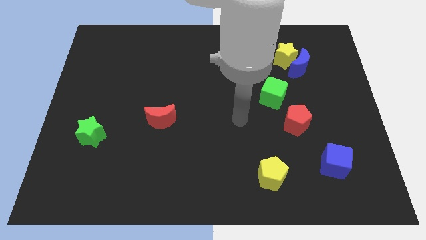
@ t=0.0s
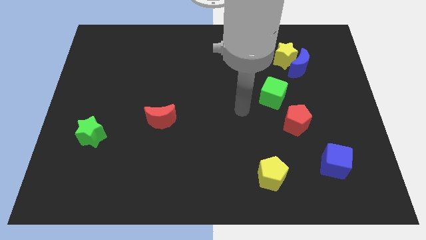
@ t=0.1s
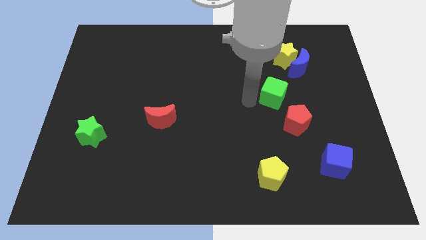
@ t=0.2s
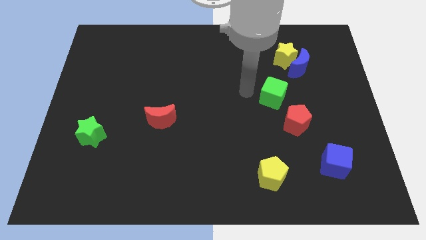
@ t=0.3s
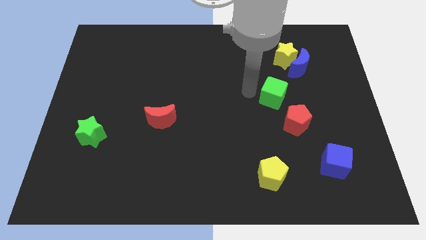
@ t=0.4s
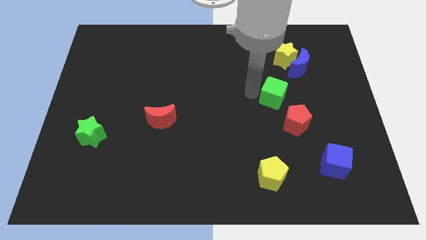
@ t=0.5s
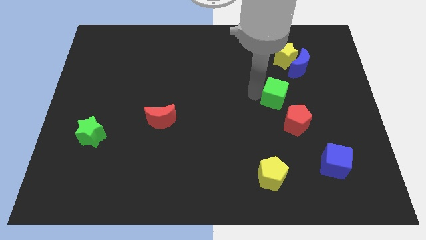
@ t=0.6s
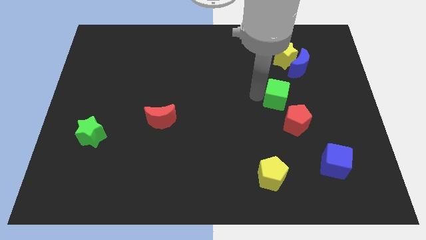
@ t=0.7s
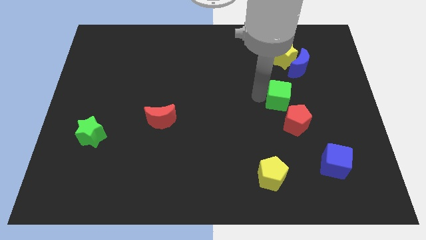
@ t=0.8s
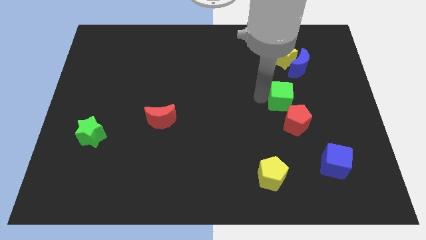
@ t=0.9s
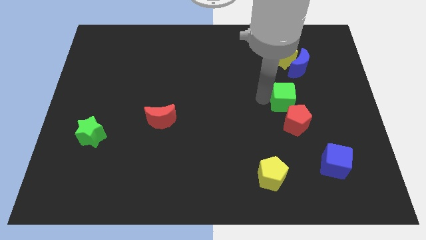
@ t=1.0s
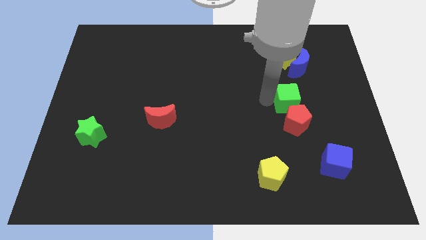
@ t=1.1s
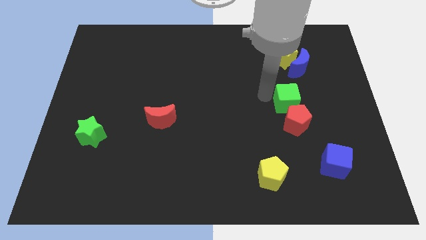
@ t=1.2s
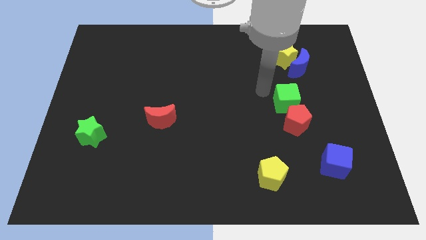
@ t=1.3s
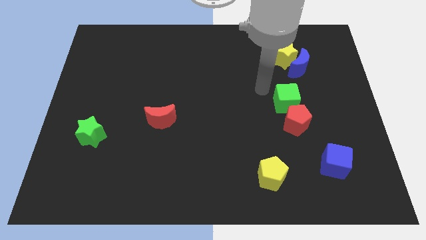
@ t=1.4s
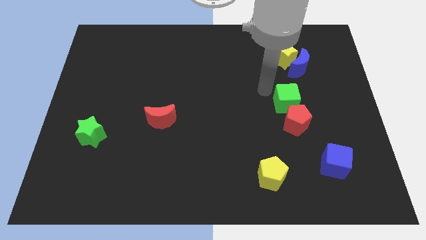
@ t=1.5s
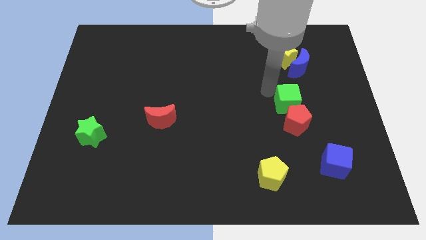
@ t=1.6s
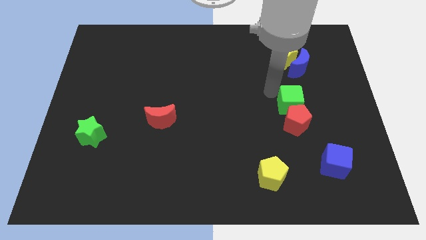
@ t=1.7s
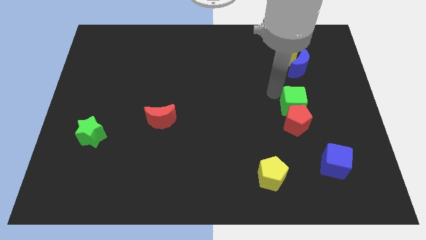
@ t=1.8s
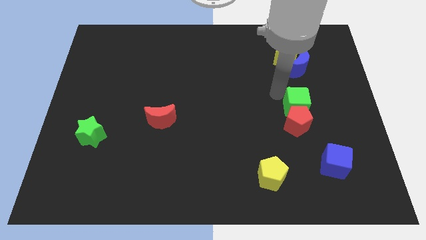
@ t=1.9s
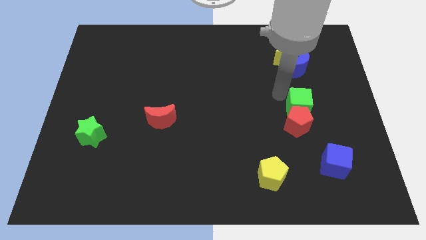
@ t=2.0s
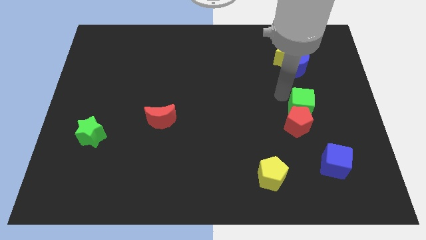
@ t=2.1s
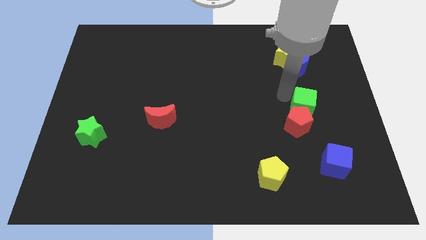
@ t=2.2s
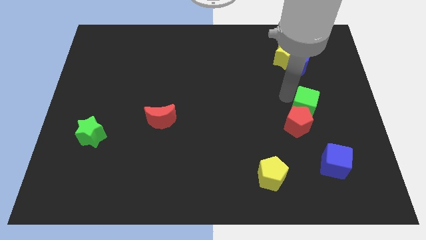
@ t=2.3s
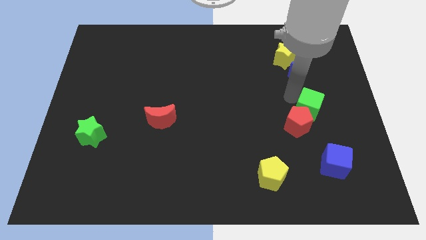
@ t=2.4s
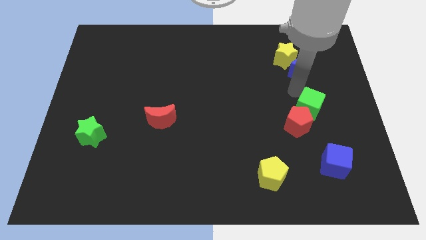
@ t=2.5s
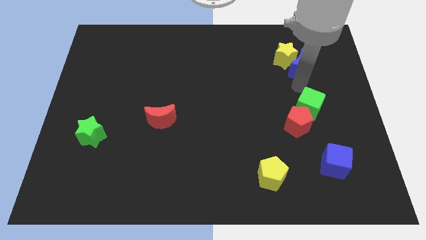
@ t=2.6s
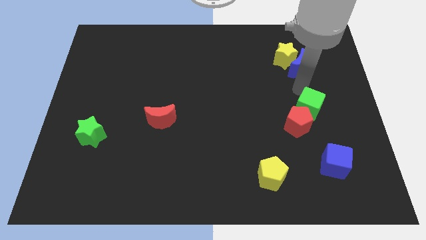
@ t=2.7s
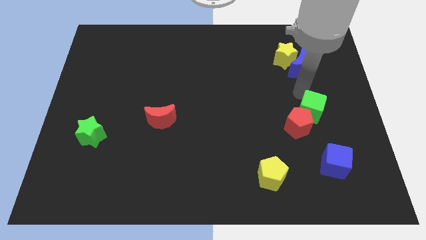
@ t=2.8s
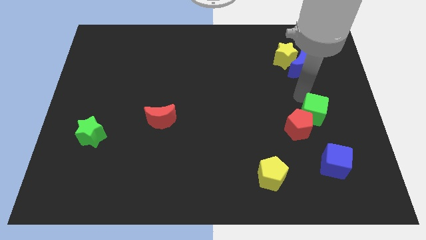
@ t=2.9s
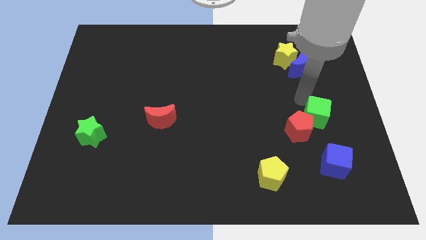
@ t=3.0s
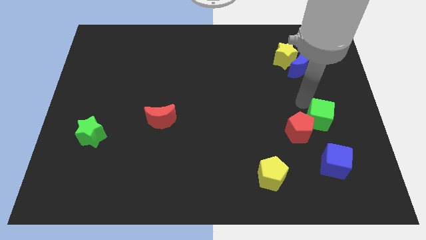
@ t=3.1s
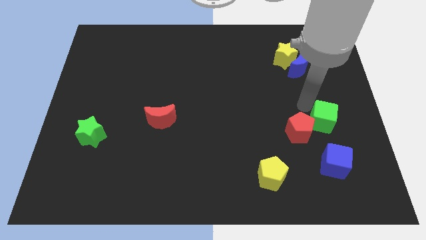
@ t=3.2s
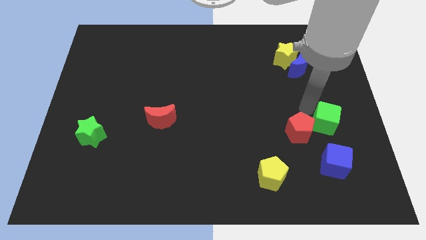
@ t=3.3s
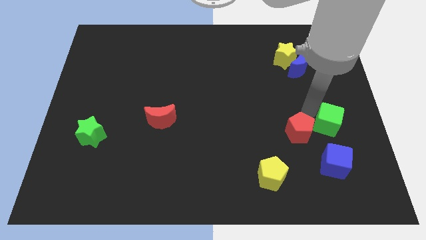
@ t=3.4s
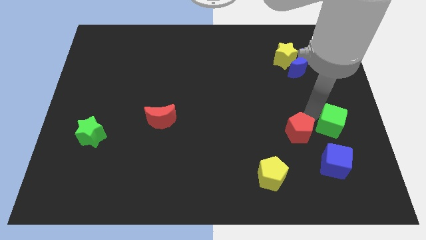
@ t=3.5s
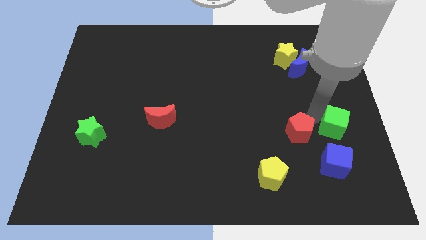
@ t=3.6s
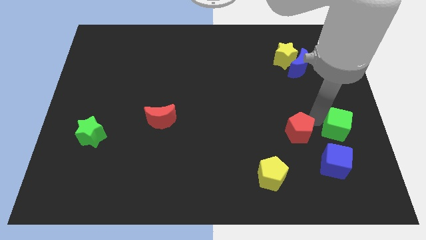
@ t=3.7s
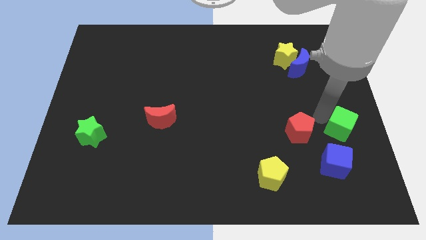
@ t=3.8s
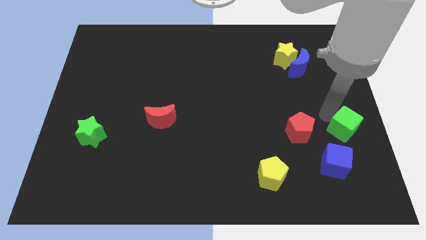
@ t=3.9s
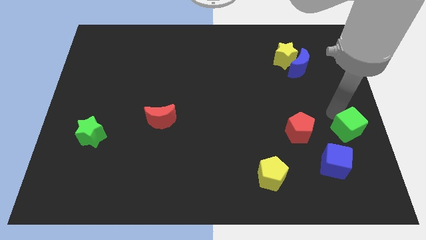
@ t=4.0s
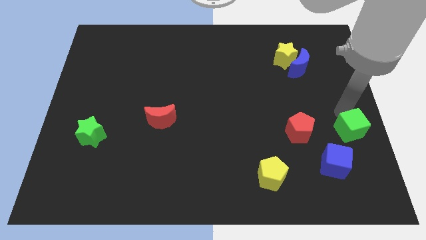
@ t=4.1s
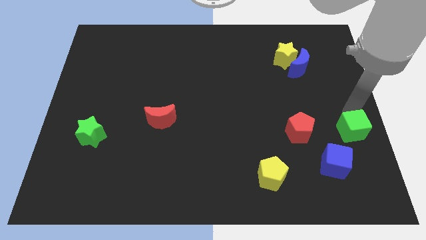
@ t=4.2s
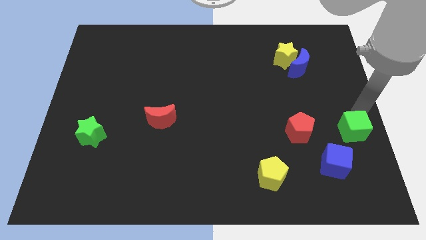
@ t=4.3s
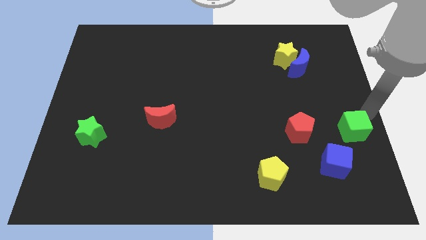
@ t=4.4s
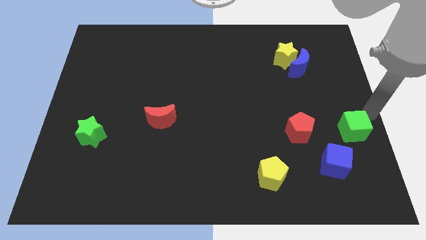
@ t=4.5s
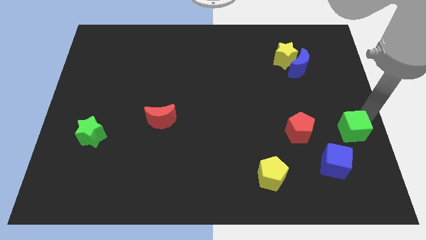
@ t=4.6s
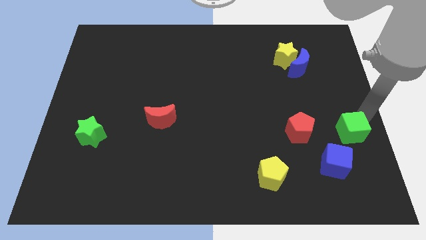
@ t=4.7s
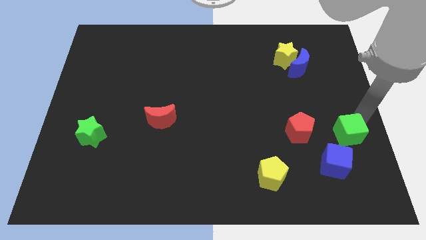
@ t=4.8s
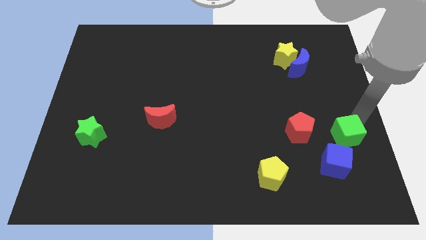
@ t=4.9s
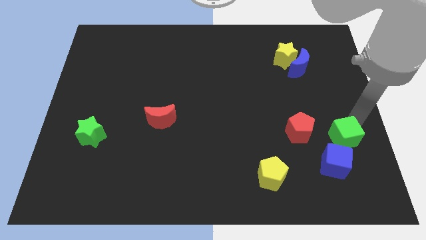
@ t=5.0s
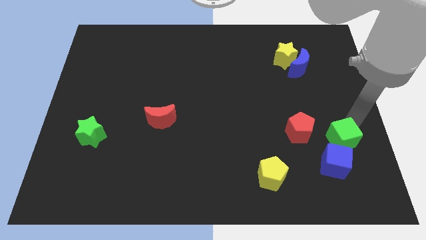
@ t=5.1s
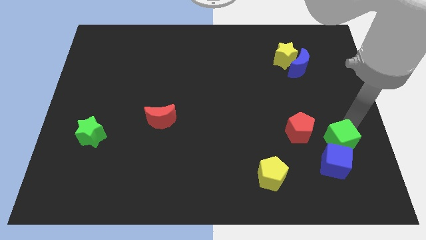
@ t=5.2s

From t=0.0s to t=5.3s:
push the green cube to the bottom right side of the red pentagon

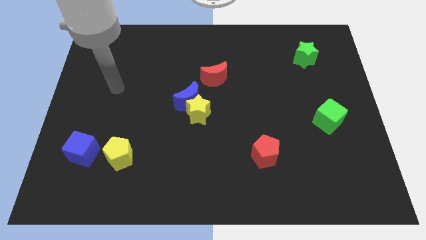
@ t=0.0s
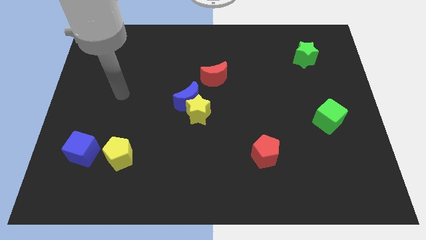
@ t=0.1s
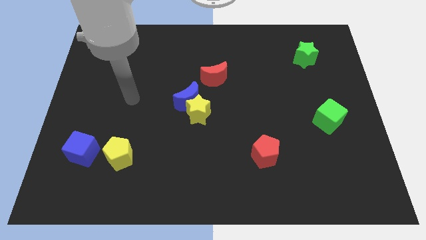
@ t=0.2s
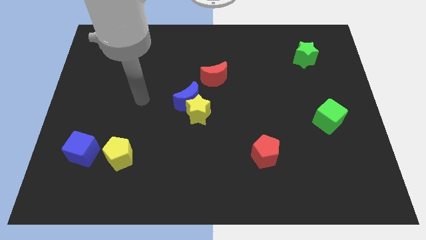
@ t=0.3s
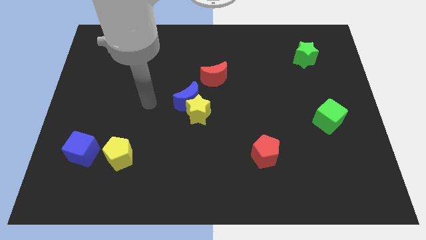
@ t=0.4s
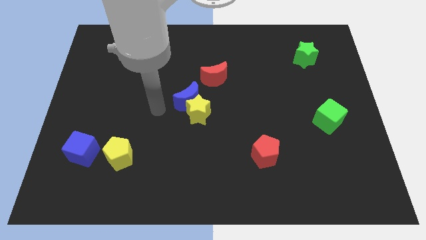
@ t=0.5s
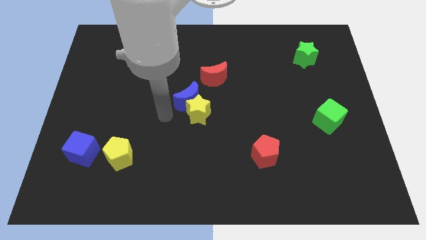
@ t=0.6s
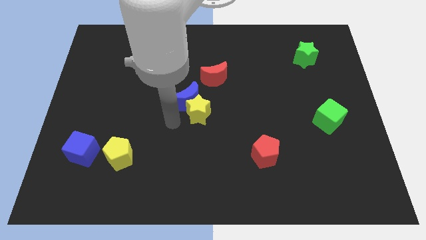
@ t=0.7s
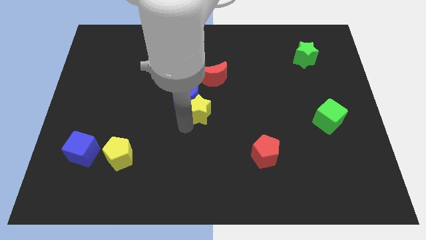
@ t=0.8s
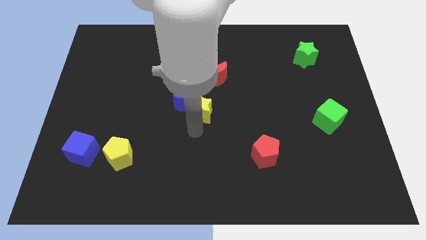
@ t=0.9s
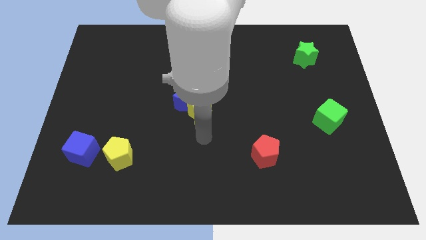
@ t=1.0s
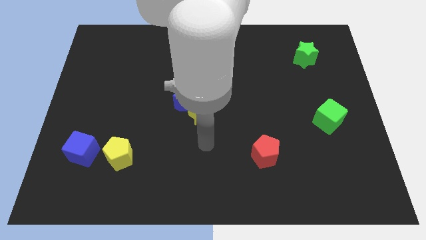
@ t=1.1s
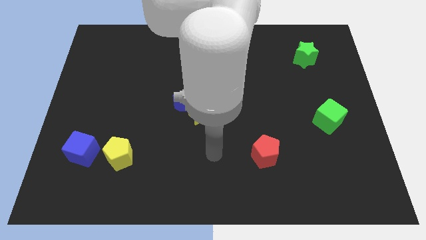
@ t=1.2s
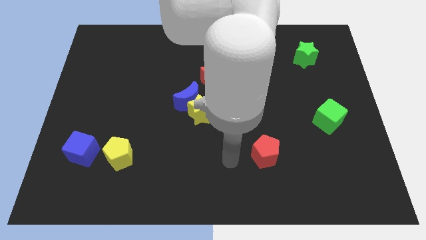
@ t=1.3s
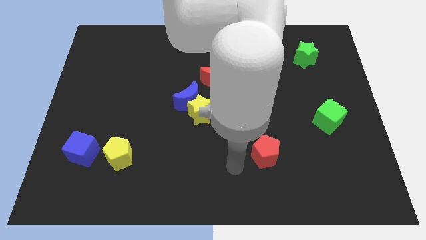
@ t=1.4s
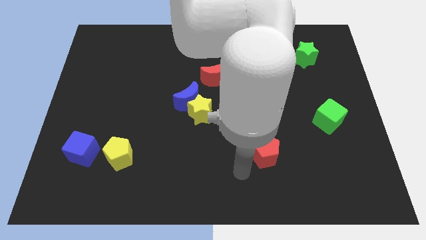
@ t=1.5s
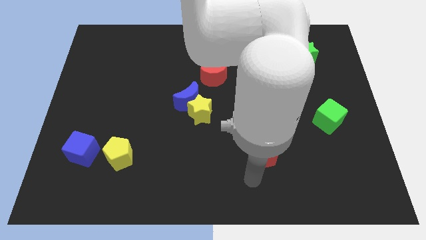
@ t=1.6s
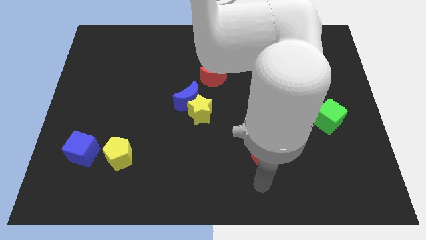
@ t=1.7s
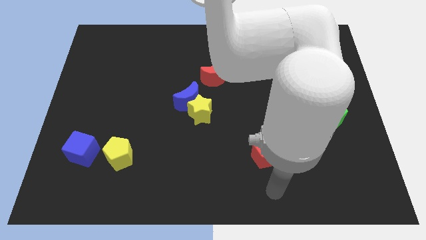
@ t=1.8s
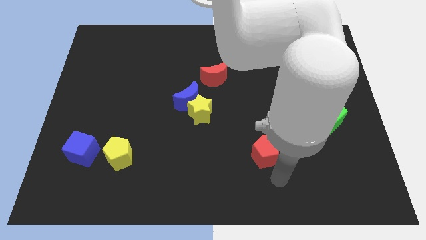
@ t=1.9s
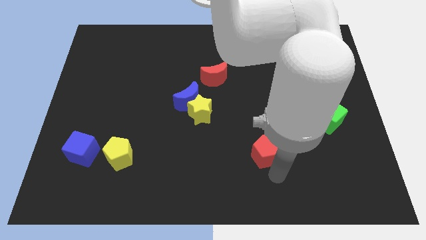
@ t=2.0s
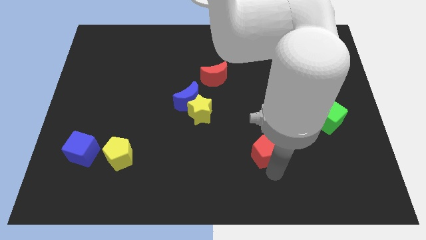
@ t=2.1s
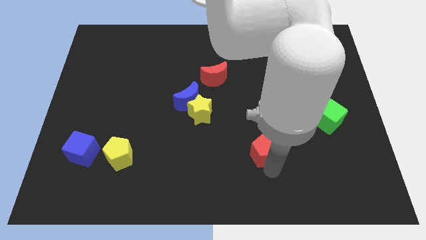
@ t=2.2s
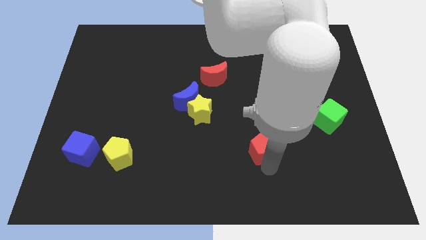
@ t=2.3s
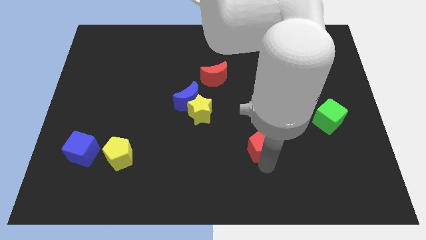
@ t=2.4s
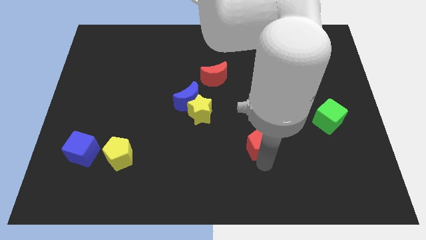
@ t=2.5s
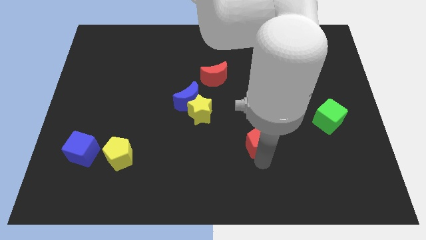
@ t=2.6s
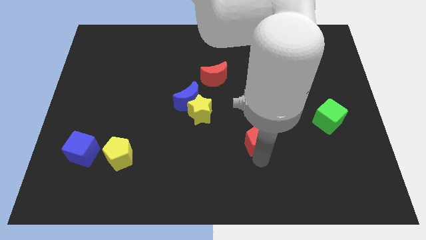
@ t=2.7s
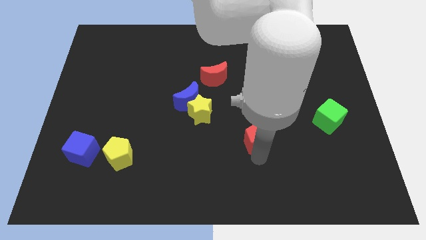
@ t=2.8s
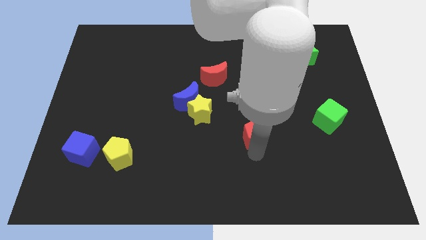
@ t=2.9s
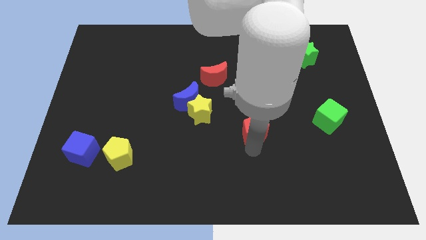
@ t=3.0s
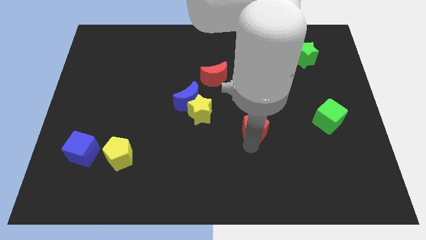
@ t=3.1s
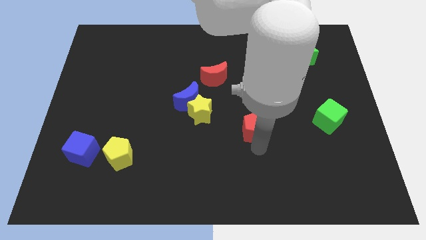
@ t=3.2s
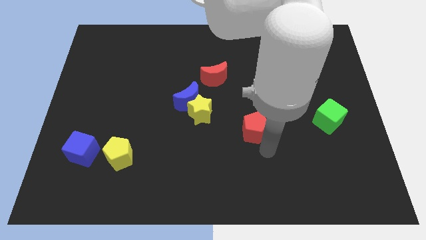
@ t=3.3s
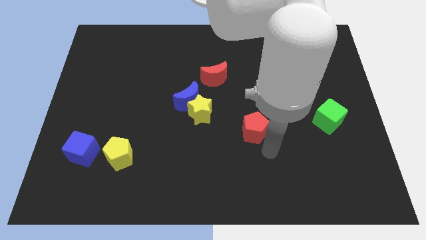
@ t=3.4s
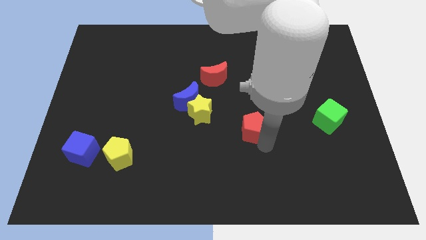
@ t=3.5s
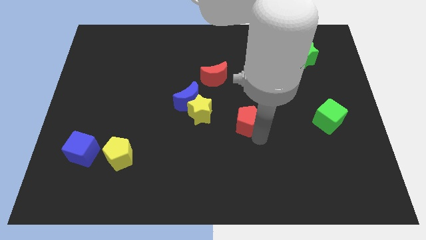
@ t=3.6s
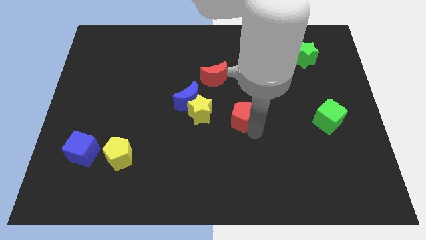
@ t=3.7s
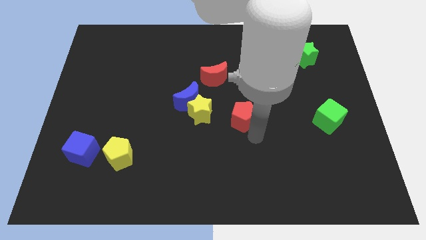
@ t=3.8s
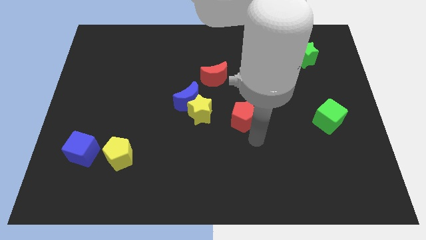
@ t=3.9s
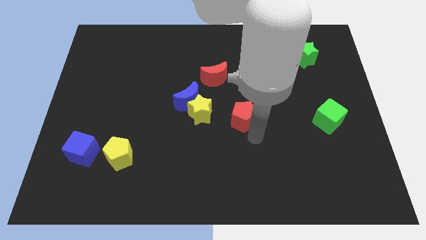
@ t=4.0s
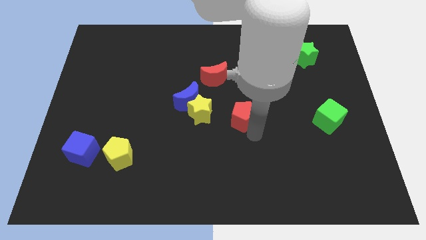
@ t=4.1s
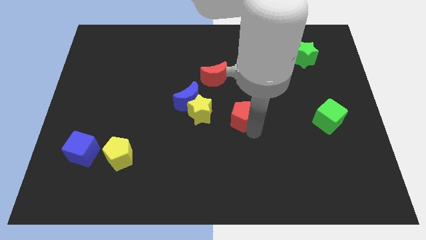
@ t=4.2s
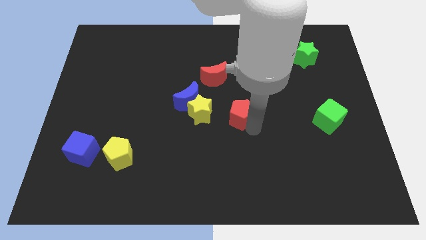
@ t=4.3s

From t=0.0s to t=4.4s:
move the red pentagon just right of the blue moon
